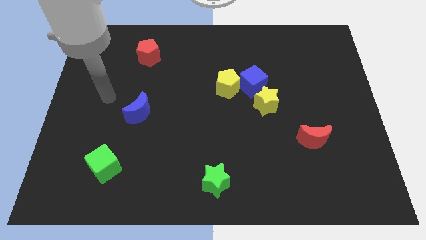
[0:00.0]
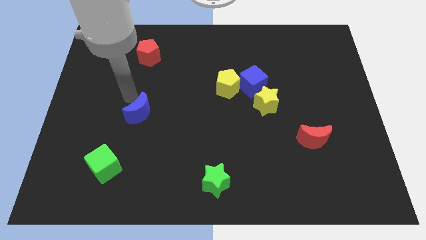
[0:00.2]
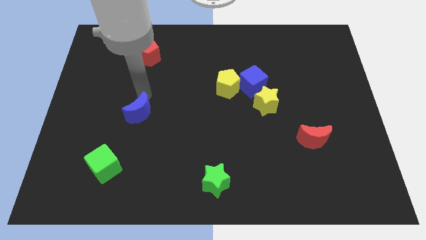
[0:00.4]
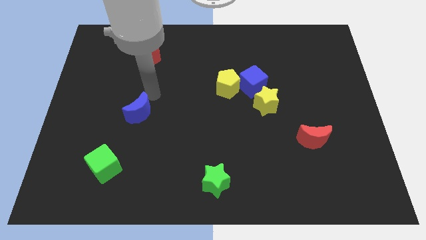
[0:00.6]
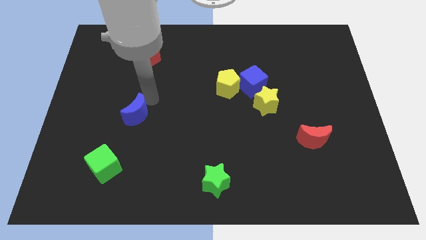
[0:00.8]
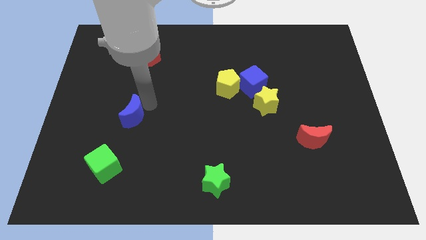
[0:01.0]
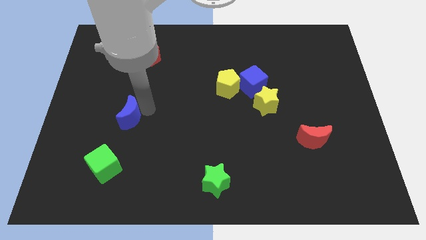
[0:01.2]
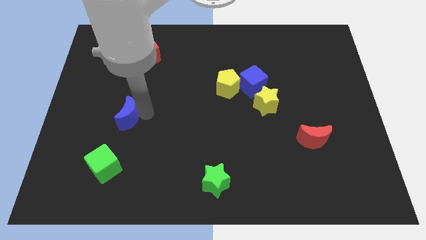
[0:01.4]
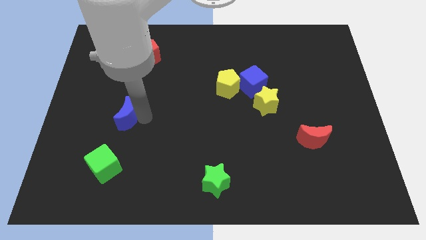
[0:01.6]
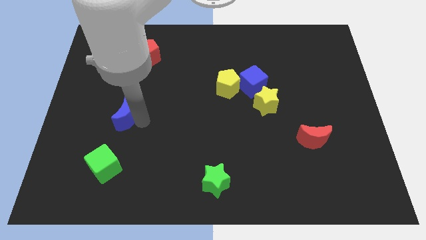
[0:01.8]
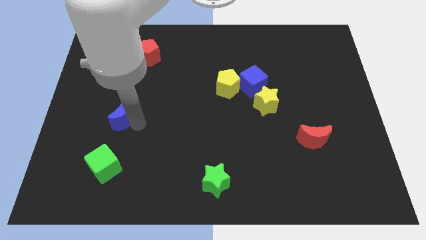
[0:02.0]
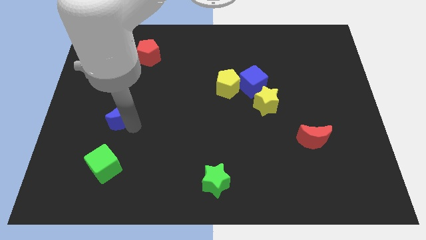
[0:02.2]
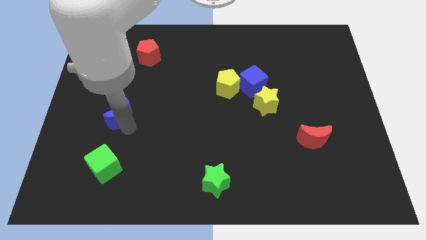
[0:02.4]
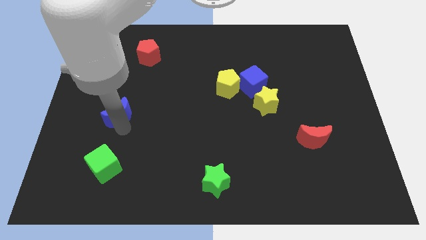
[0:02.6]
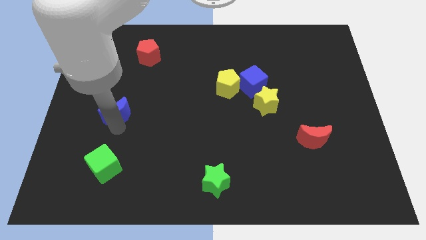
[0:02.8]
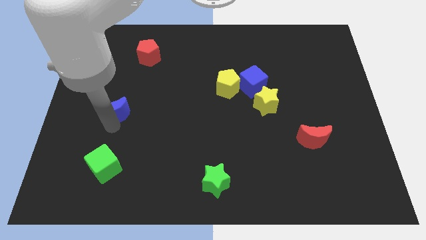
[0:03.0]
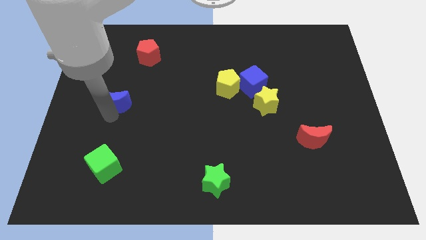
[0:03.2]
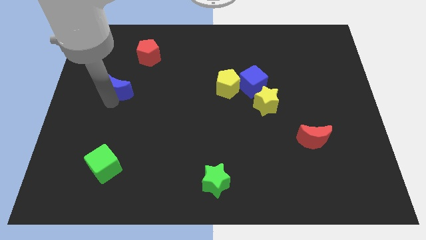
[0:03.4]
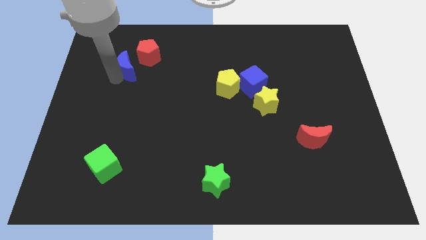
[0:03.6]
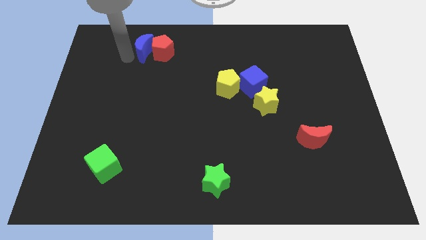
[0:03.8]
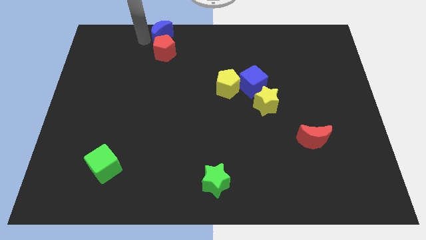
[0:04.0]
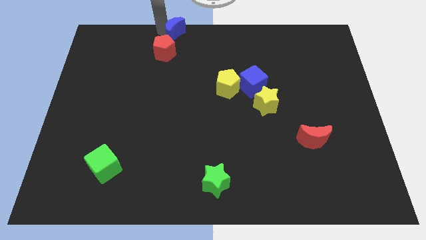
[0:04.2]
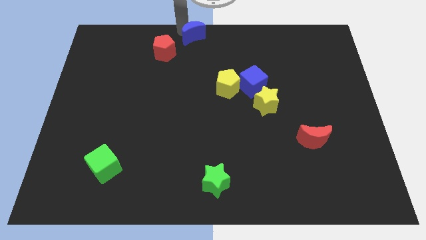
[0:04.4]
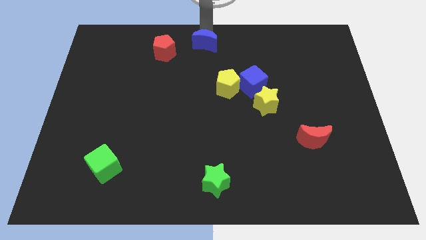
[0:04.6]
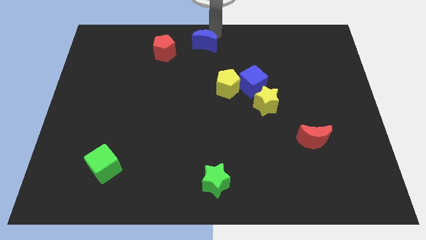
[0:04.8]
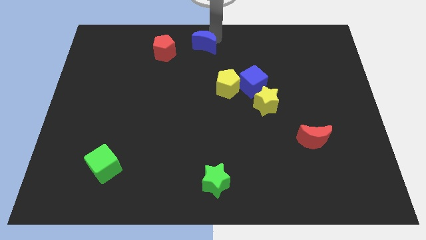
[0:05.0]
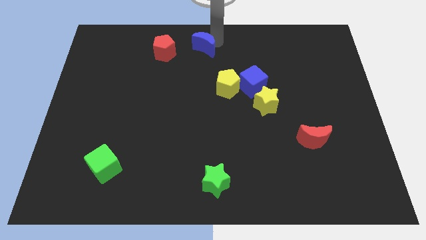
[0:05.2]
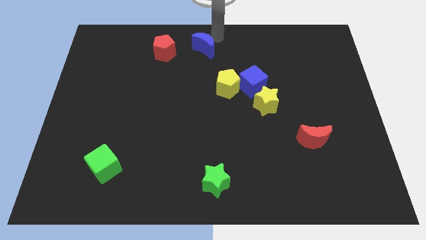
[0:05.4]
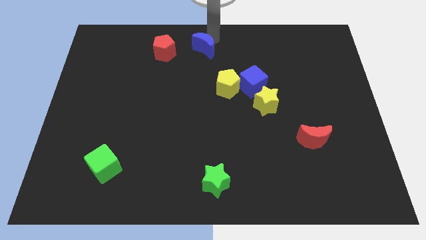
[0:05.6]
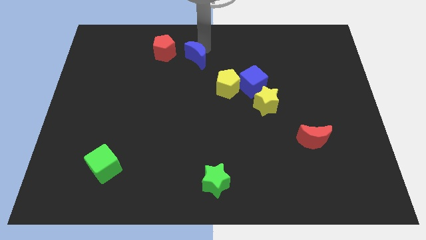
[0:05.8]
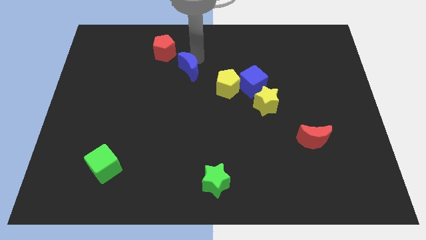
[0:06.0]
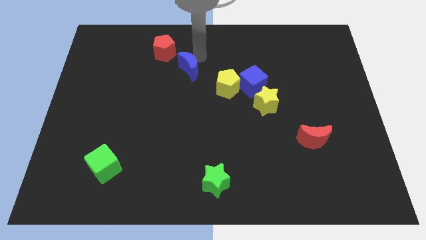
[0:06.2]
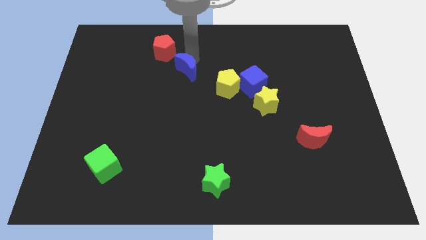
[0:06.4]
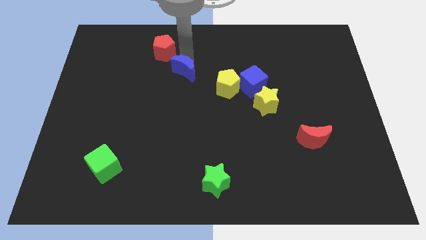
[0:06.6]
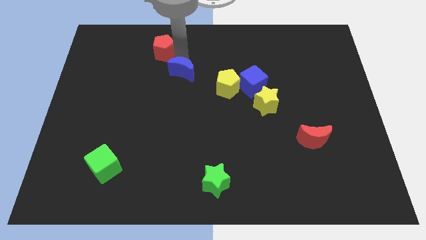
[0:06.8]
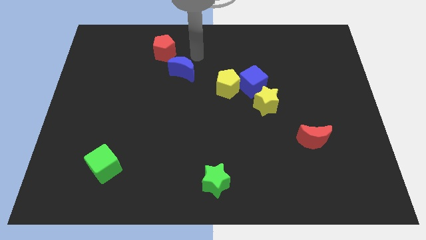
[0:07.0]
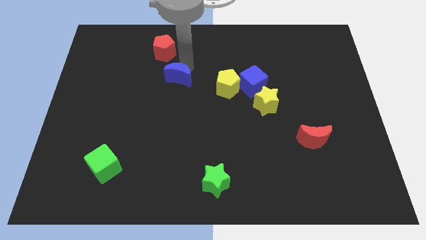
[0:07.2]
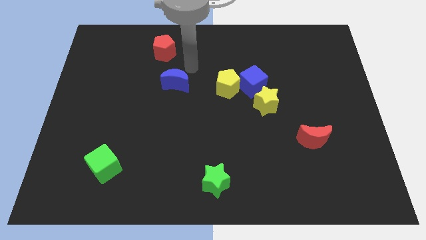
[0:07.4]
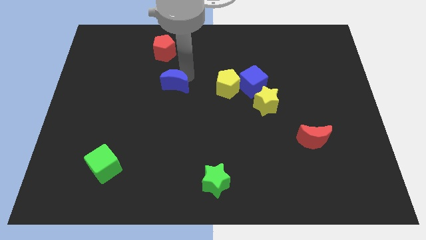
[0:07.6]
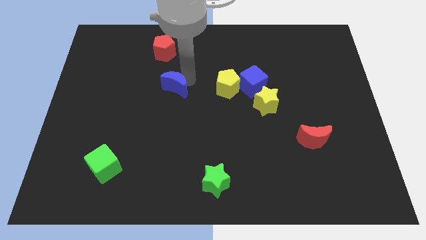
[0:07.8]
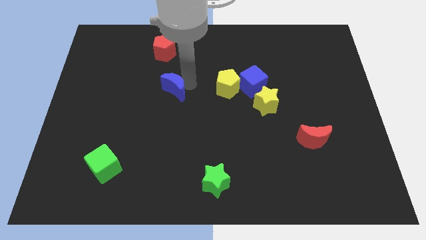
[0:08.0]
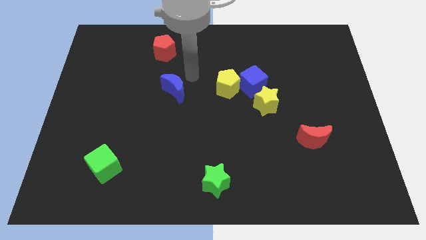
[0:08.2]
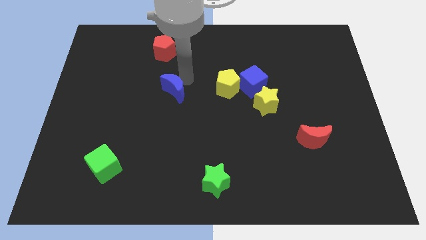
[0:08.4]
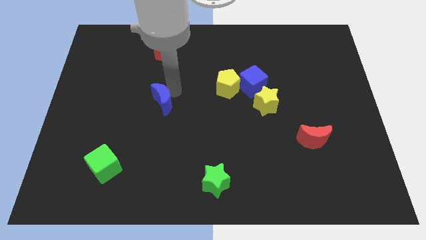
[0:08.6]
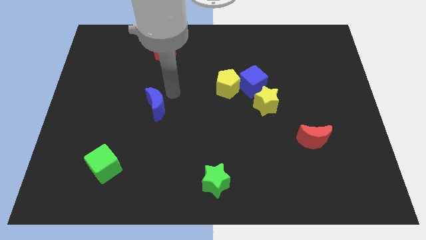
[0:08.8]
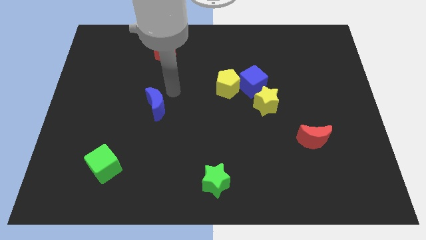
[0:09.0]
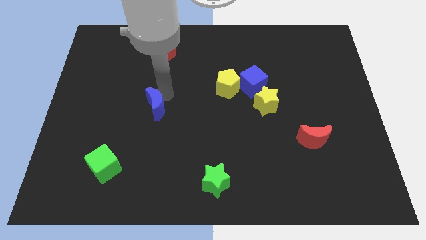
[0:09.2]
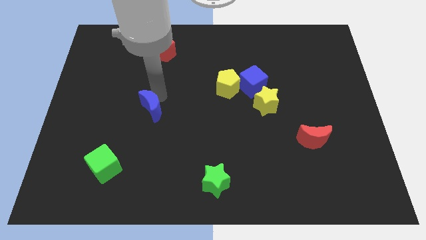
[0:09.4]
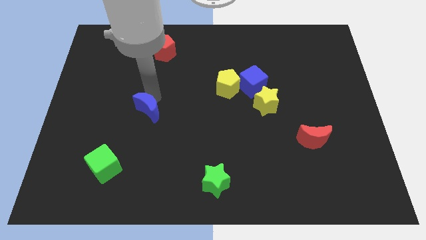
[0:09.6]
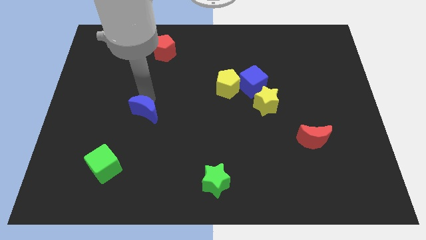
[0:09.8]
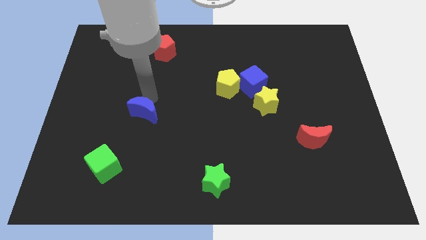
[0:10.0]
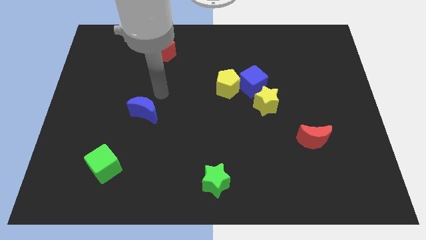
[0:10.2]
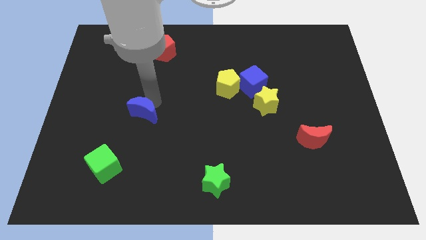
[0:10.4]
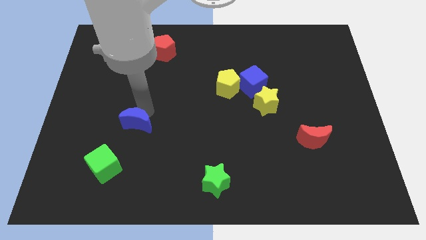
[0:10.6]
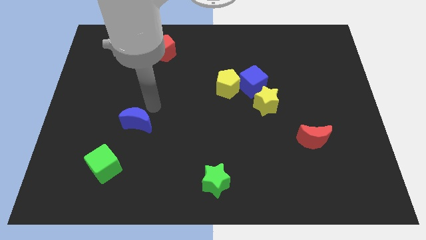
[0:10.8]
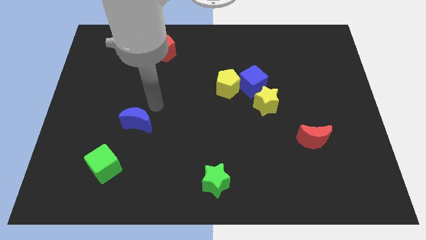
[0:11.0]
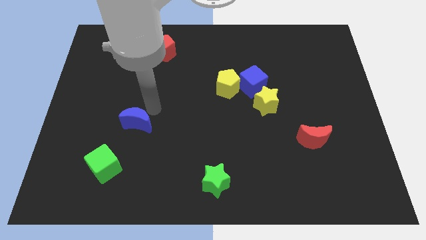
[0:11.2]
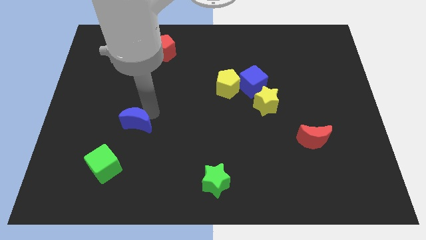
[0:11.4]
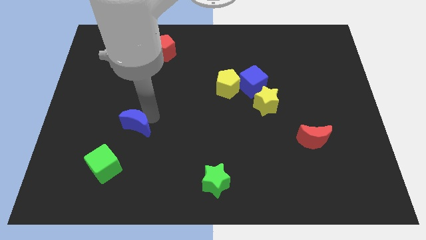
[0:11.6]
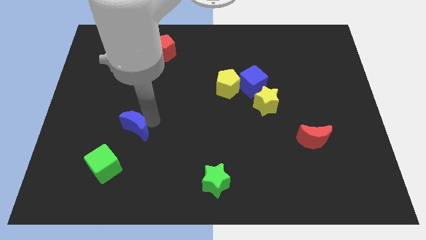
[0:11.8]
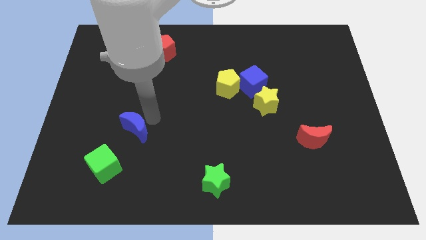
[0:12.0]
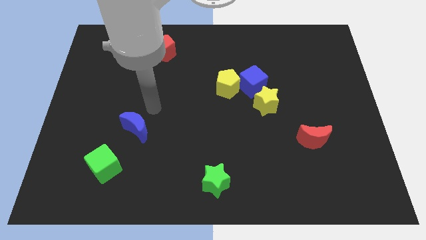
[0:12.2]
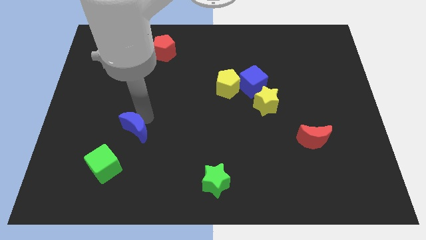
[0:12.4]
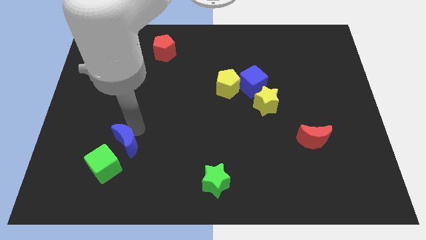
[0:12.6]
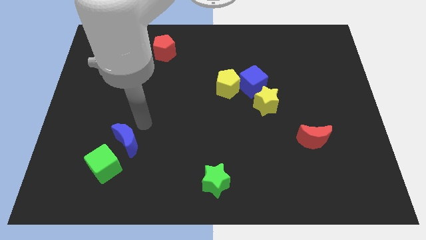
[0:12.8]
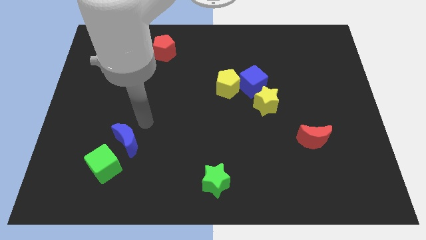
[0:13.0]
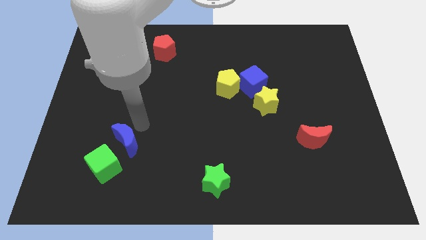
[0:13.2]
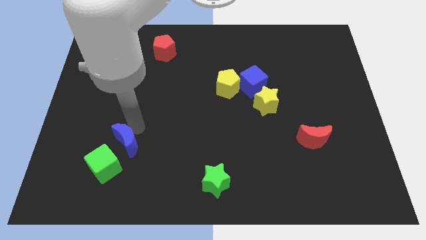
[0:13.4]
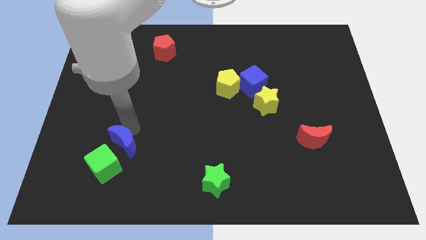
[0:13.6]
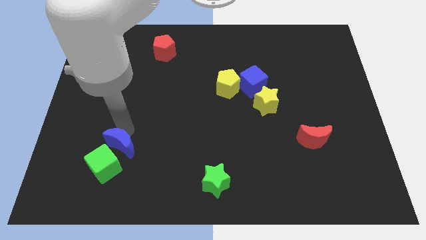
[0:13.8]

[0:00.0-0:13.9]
push the blue moon next to the green cube

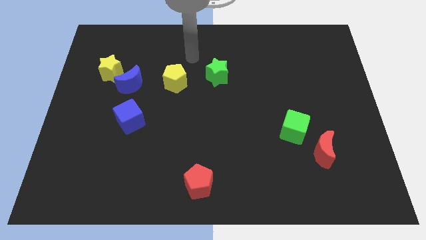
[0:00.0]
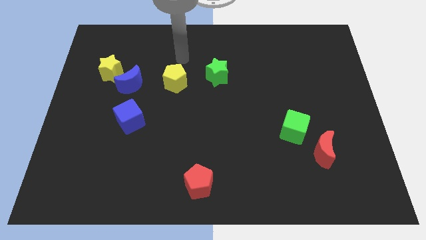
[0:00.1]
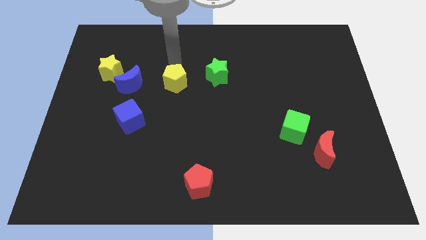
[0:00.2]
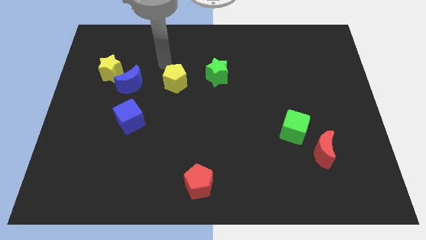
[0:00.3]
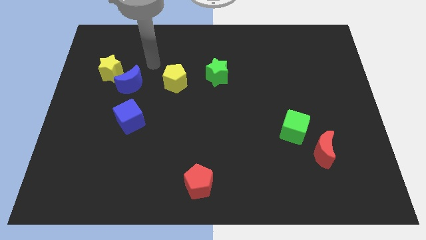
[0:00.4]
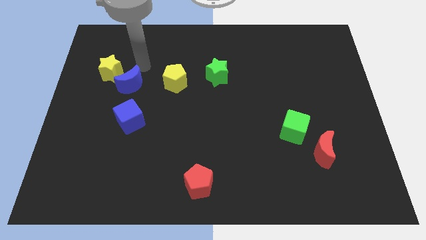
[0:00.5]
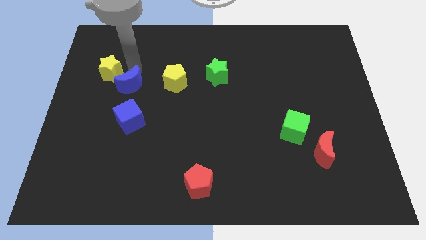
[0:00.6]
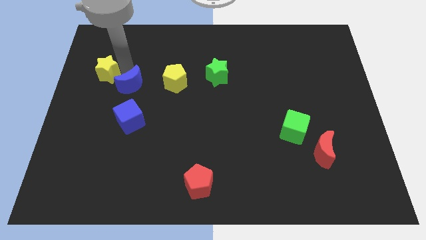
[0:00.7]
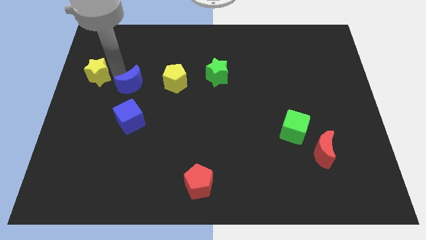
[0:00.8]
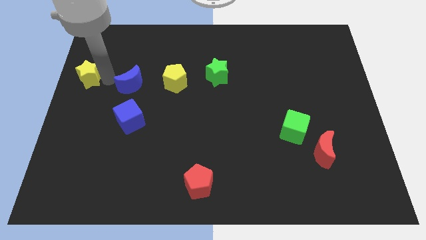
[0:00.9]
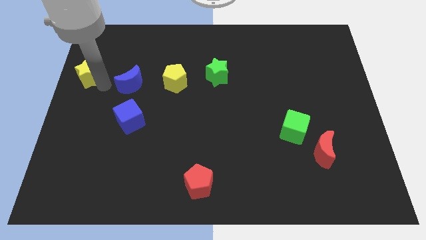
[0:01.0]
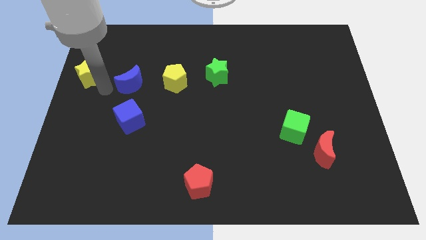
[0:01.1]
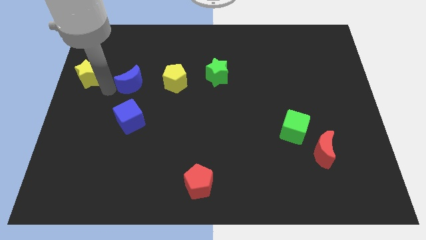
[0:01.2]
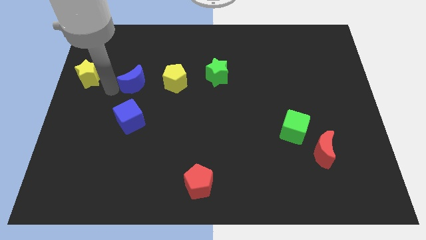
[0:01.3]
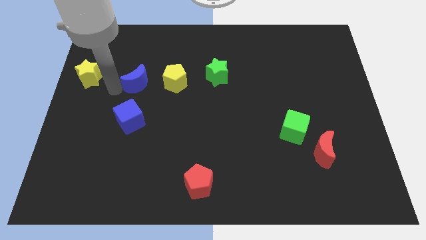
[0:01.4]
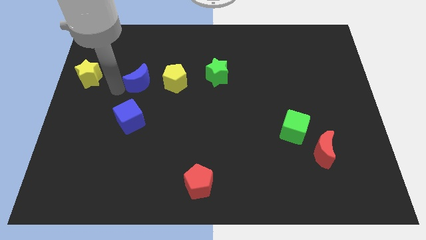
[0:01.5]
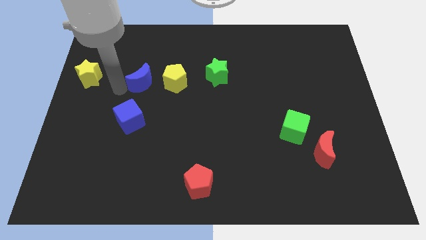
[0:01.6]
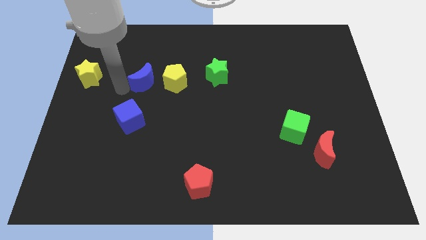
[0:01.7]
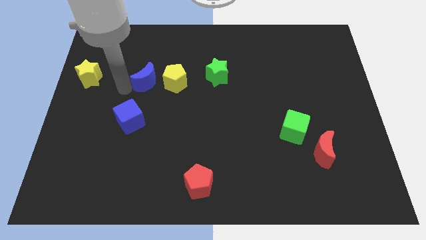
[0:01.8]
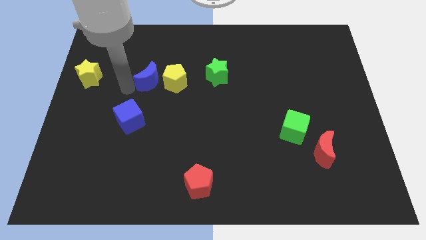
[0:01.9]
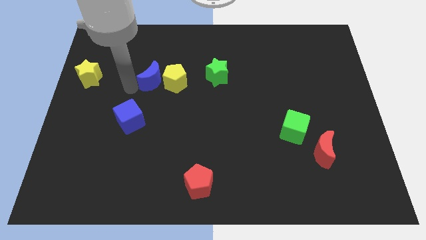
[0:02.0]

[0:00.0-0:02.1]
push the blue moon towards the yellow pentagon
